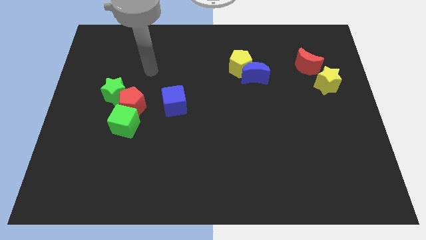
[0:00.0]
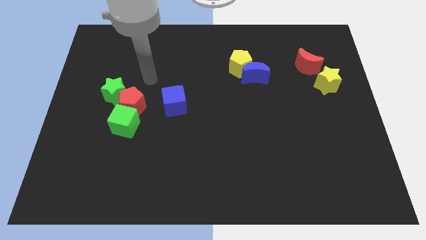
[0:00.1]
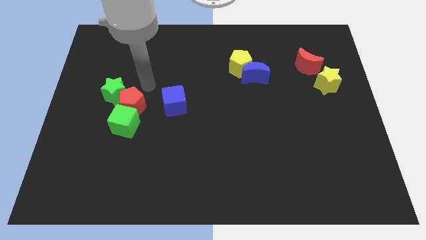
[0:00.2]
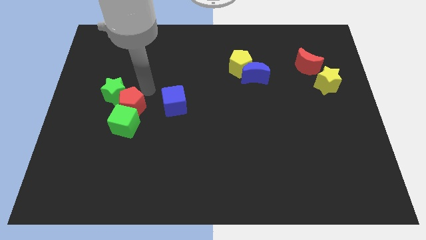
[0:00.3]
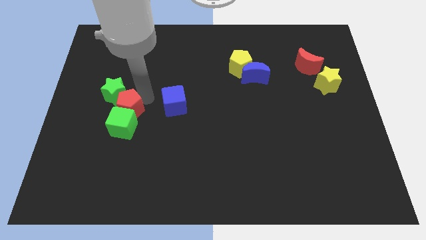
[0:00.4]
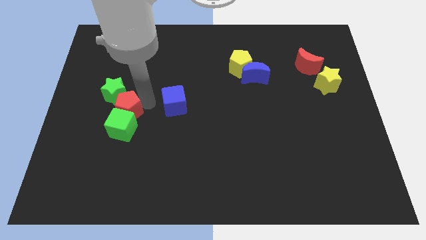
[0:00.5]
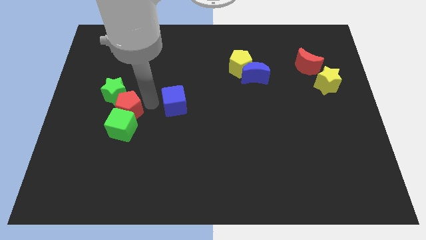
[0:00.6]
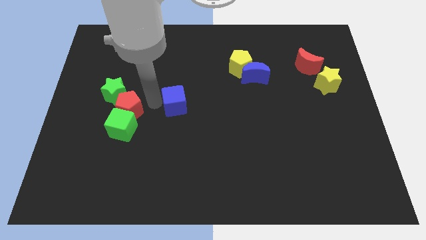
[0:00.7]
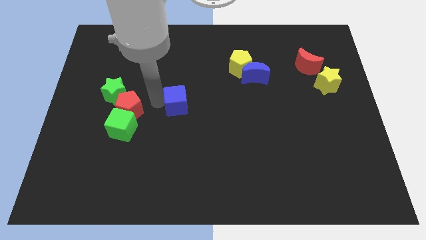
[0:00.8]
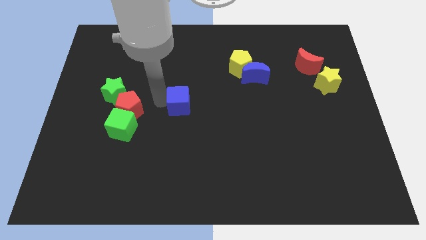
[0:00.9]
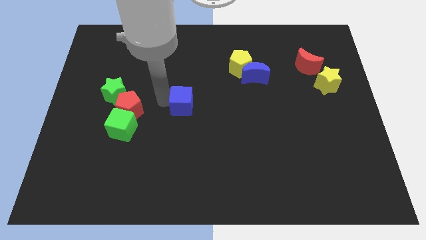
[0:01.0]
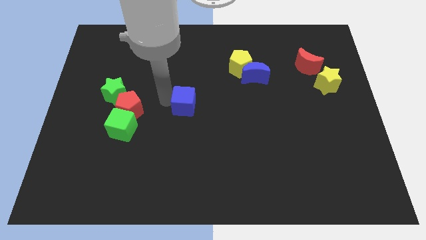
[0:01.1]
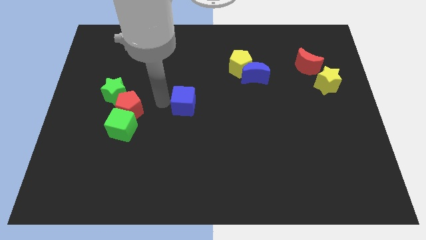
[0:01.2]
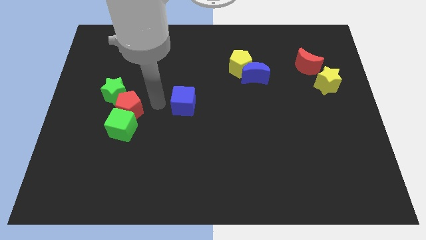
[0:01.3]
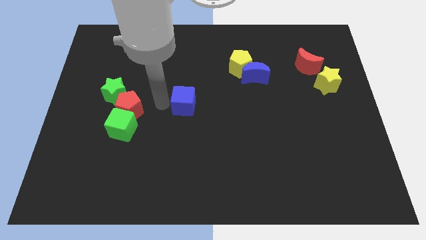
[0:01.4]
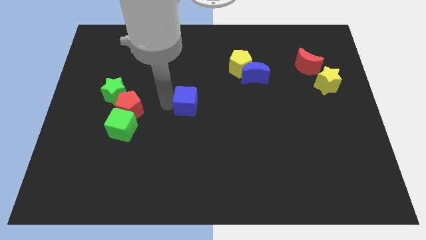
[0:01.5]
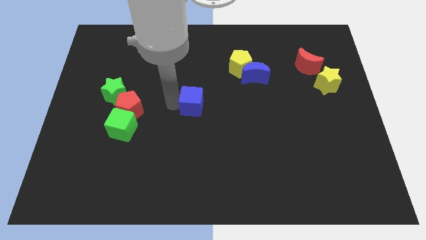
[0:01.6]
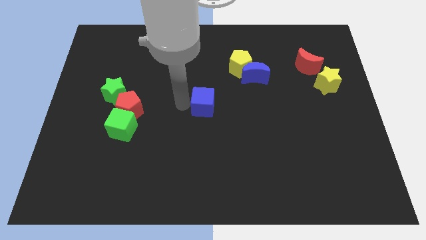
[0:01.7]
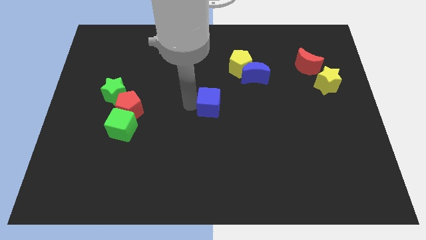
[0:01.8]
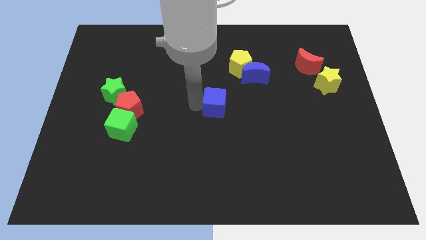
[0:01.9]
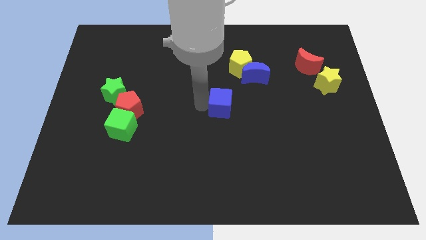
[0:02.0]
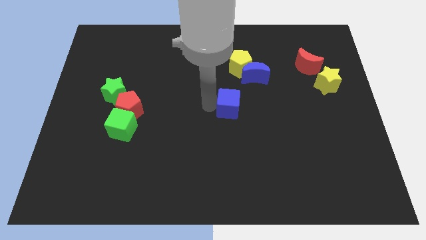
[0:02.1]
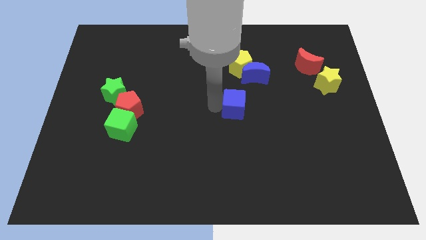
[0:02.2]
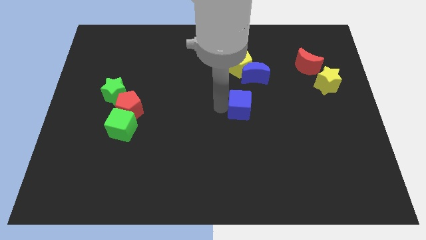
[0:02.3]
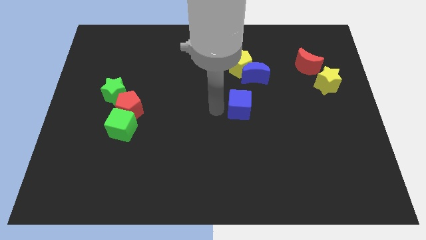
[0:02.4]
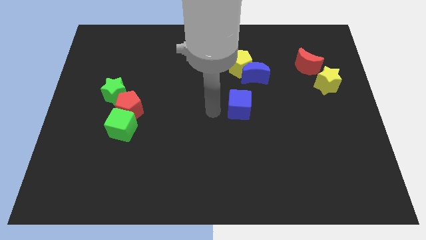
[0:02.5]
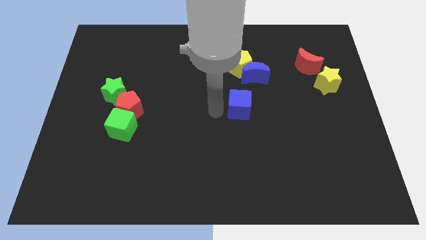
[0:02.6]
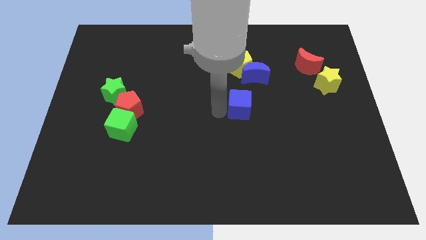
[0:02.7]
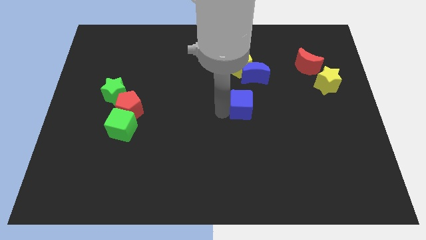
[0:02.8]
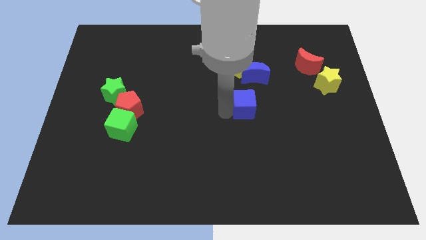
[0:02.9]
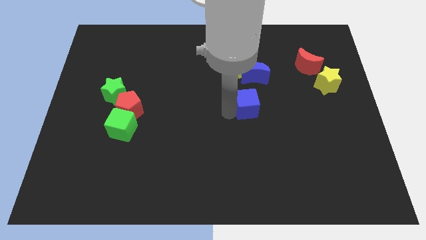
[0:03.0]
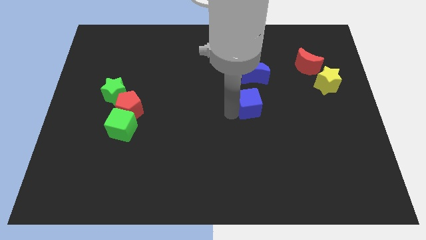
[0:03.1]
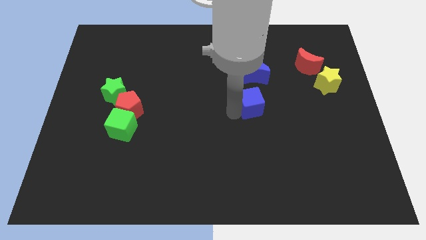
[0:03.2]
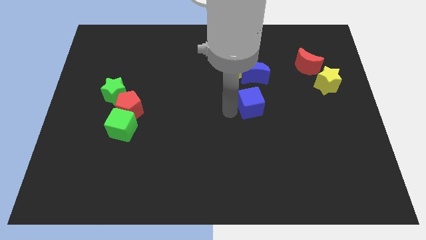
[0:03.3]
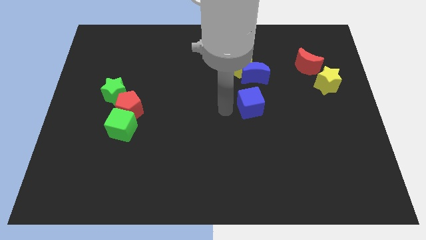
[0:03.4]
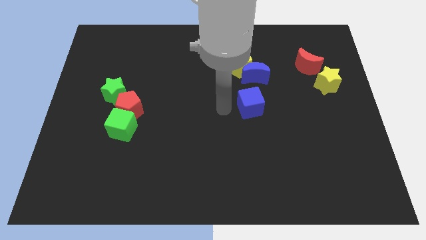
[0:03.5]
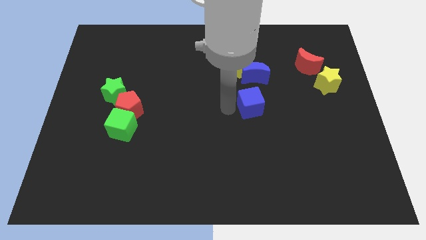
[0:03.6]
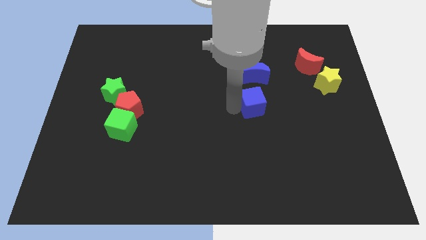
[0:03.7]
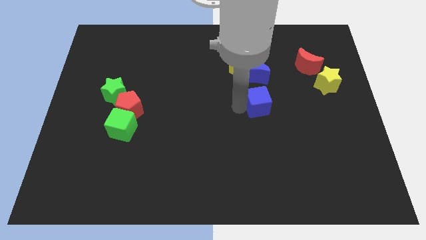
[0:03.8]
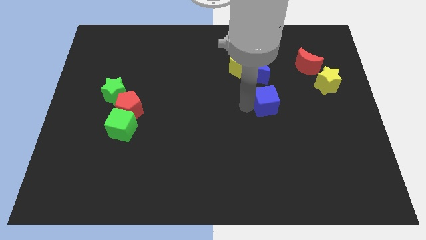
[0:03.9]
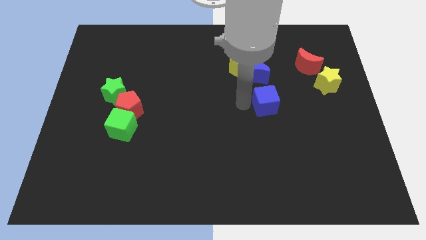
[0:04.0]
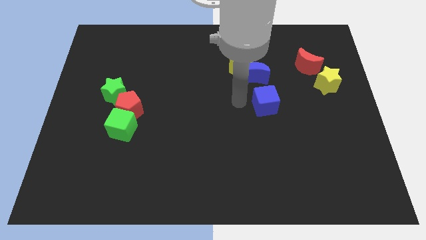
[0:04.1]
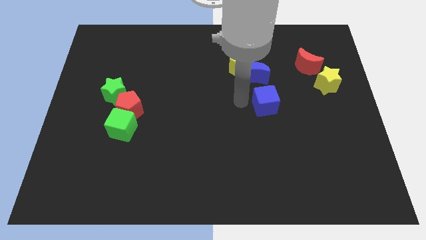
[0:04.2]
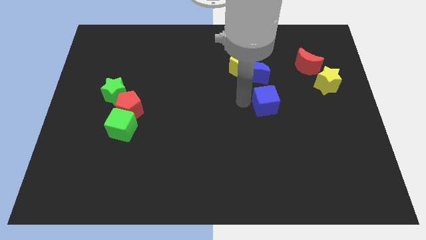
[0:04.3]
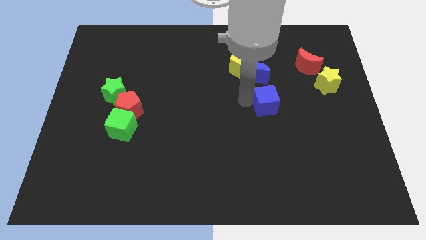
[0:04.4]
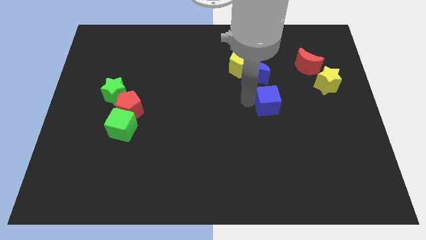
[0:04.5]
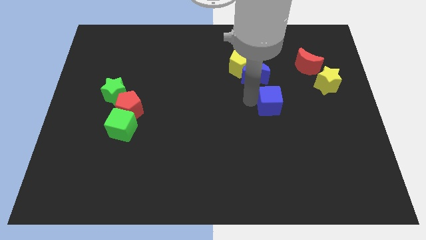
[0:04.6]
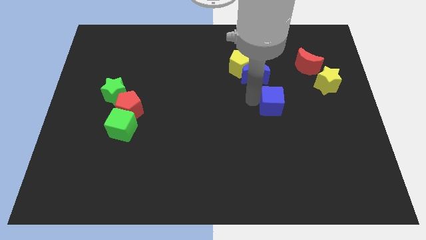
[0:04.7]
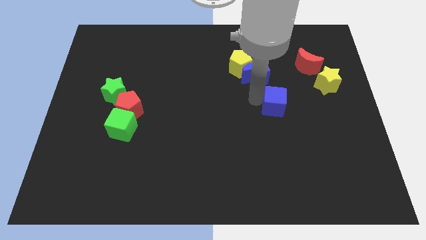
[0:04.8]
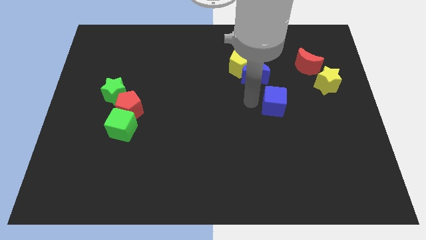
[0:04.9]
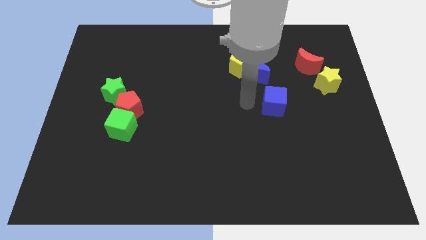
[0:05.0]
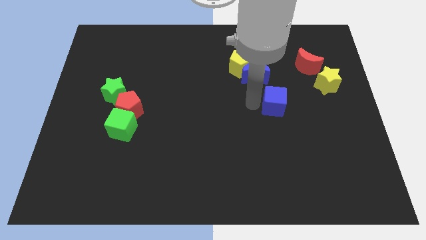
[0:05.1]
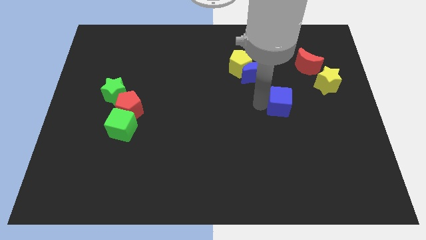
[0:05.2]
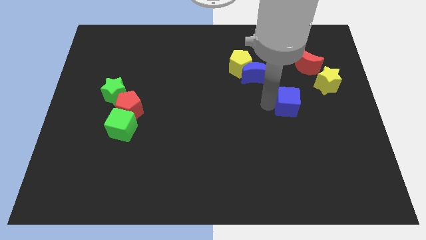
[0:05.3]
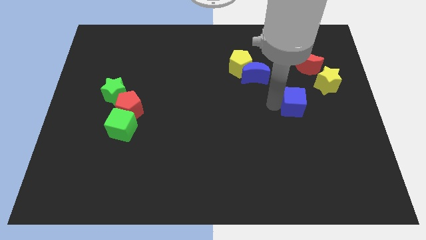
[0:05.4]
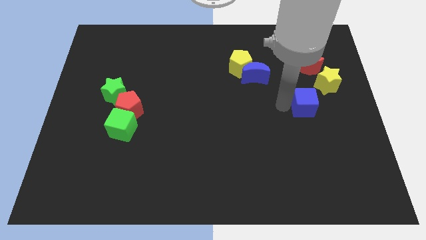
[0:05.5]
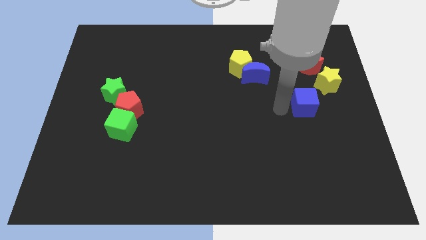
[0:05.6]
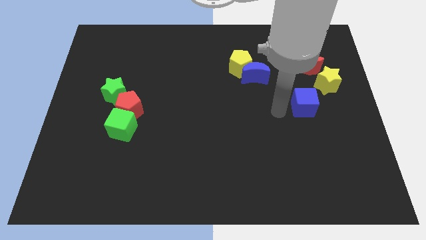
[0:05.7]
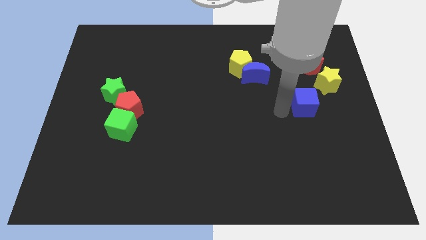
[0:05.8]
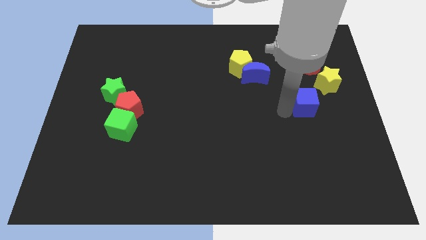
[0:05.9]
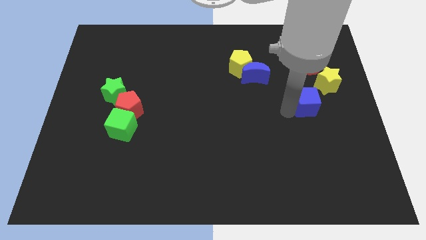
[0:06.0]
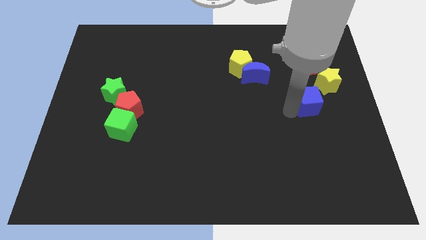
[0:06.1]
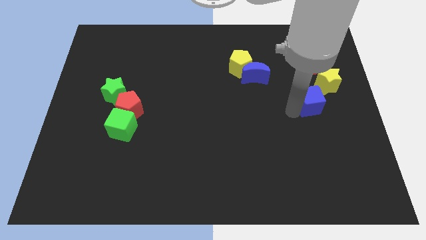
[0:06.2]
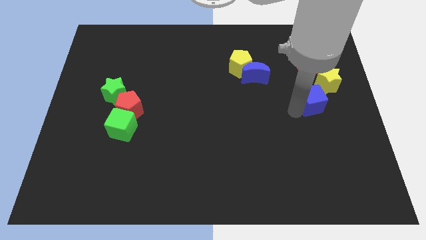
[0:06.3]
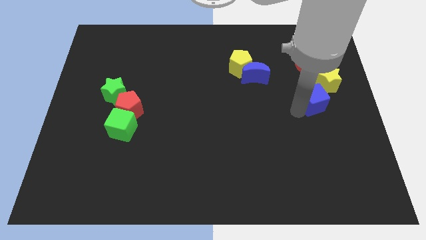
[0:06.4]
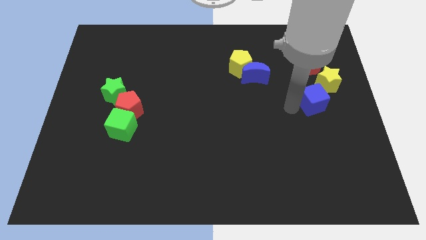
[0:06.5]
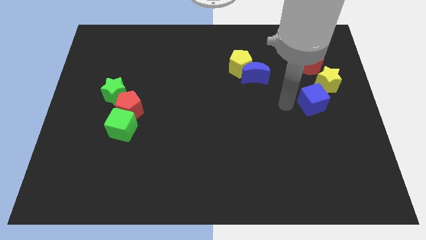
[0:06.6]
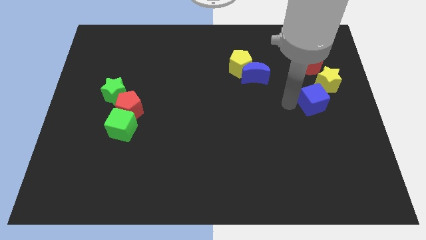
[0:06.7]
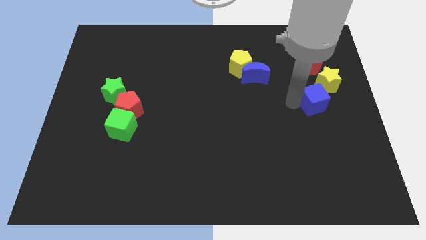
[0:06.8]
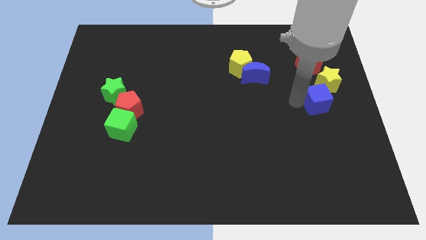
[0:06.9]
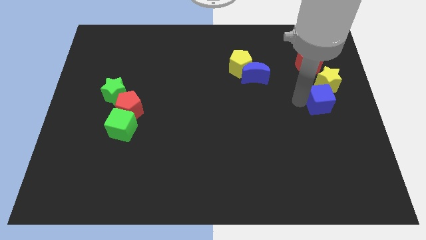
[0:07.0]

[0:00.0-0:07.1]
slide the blue cube to the right side
